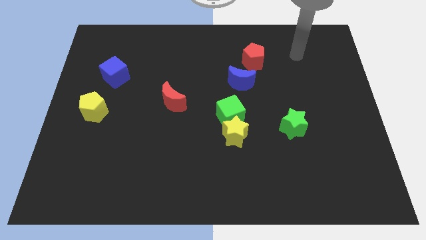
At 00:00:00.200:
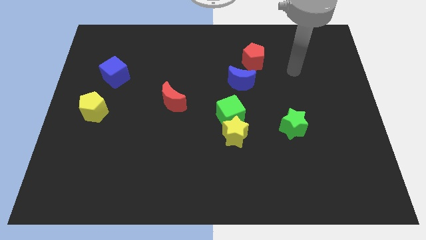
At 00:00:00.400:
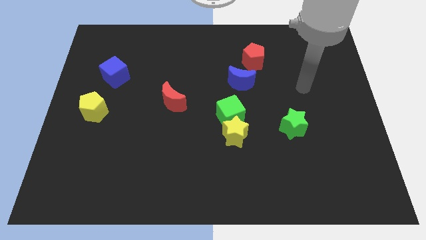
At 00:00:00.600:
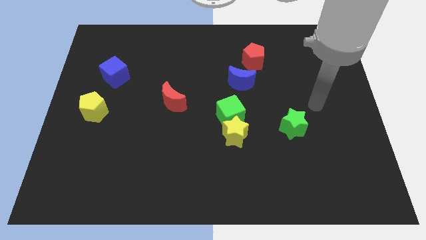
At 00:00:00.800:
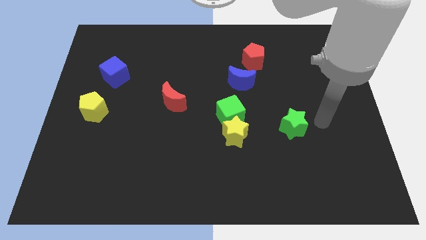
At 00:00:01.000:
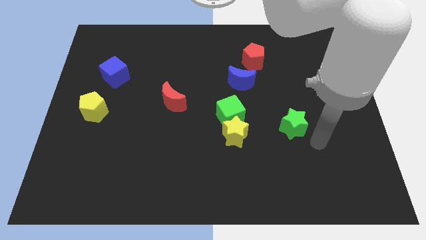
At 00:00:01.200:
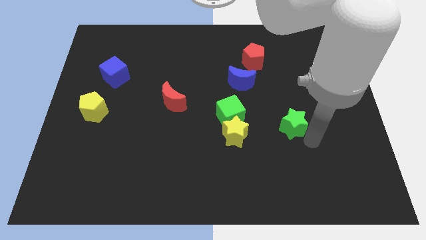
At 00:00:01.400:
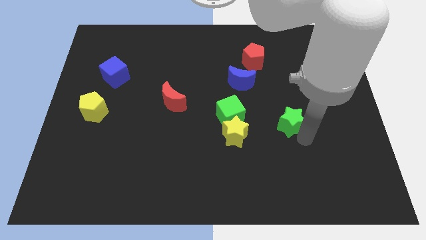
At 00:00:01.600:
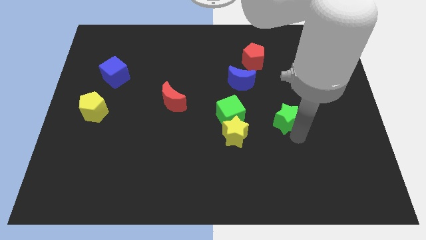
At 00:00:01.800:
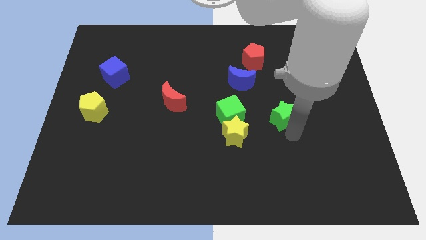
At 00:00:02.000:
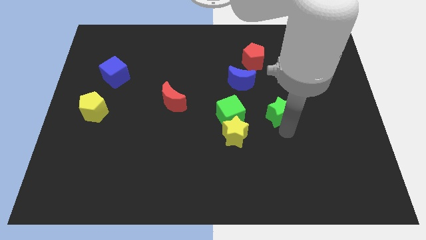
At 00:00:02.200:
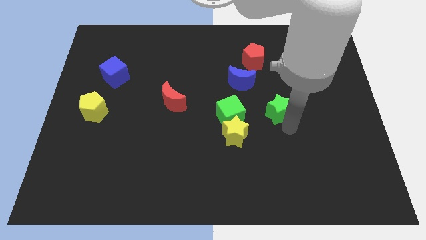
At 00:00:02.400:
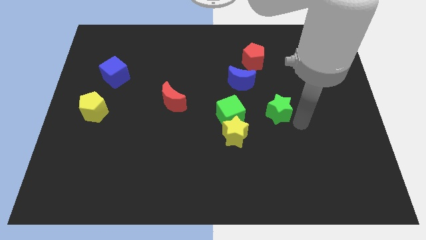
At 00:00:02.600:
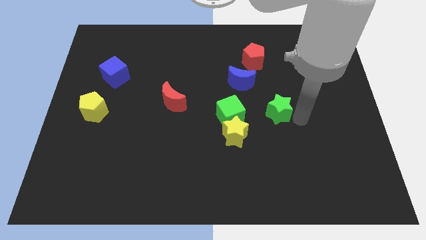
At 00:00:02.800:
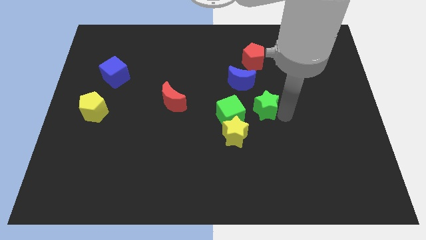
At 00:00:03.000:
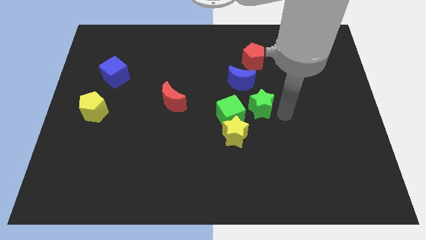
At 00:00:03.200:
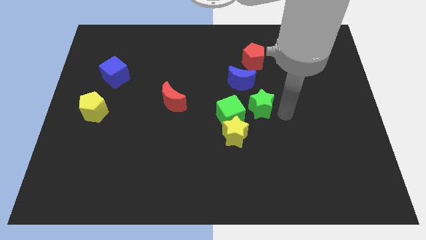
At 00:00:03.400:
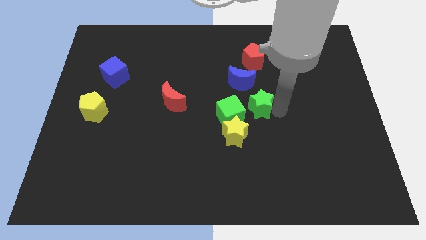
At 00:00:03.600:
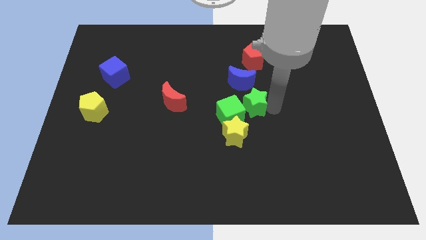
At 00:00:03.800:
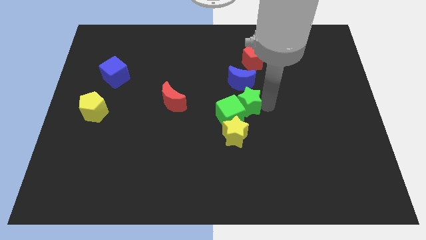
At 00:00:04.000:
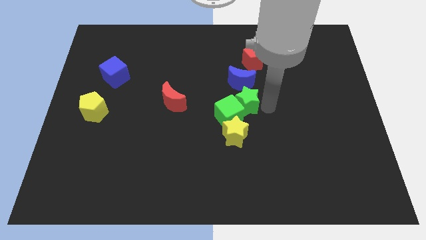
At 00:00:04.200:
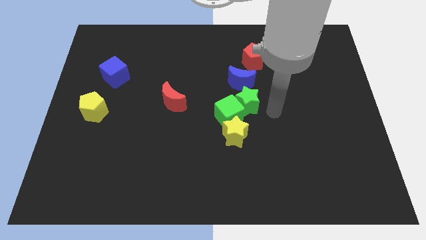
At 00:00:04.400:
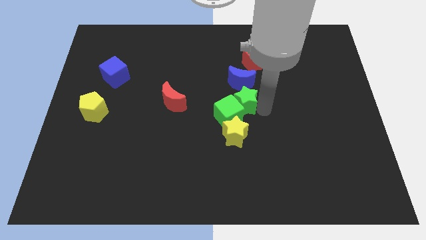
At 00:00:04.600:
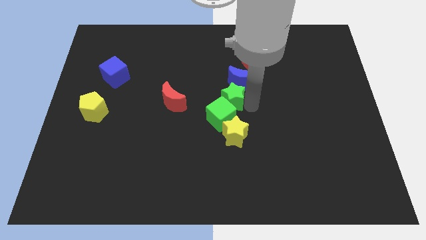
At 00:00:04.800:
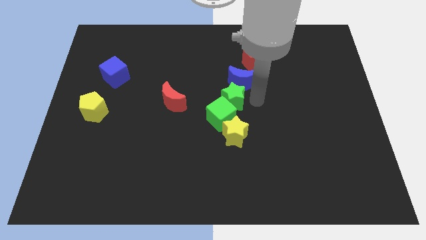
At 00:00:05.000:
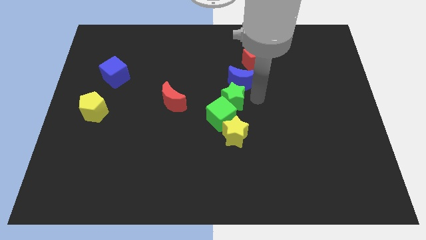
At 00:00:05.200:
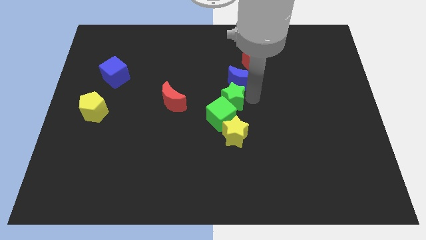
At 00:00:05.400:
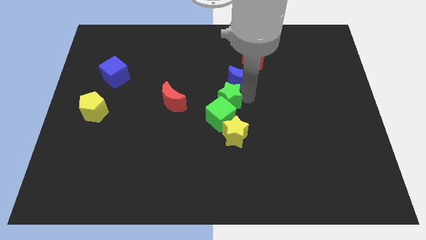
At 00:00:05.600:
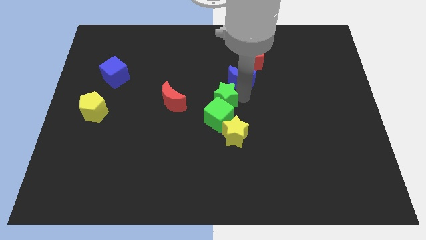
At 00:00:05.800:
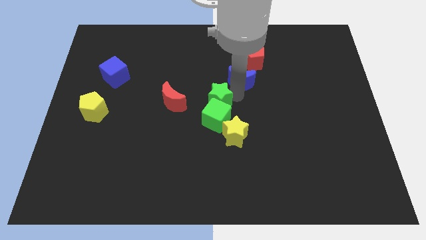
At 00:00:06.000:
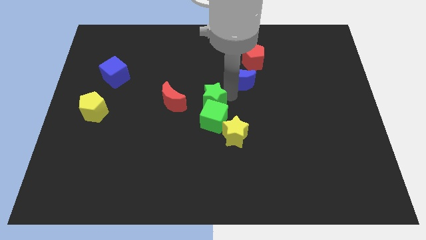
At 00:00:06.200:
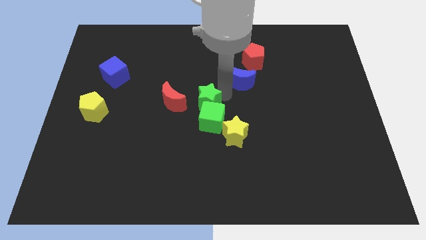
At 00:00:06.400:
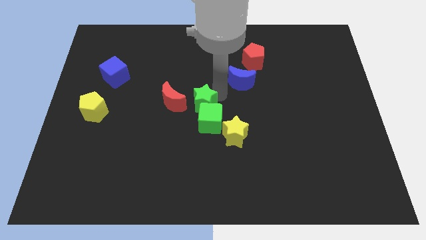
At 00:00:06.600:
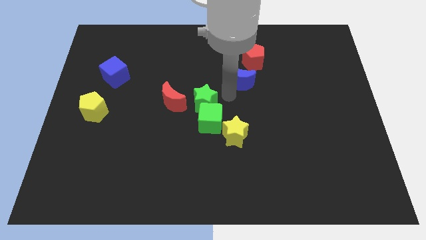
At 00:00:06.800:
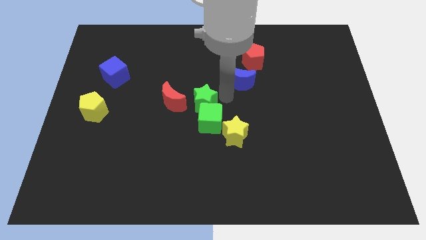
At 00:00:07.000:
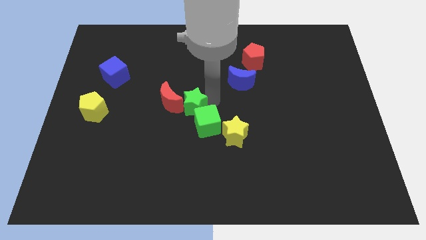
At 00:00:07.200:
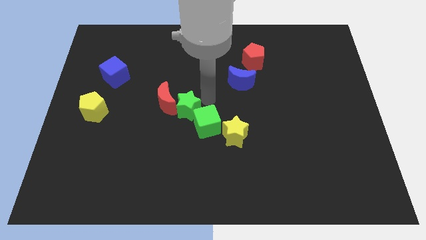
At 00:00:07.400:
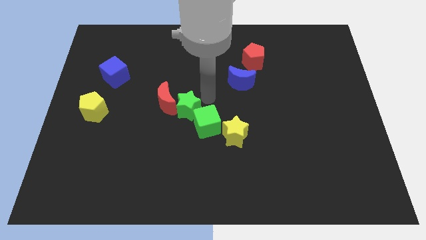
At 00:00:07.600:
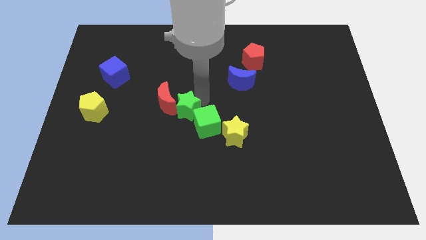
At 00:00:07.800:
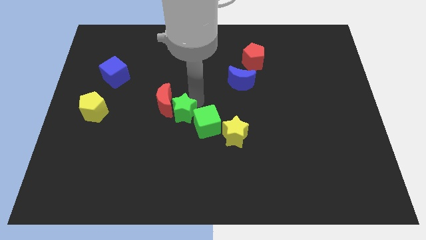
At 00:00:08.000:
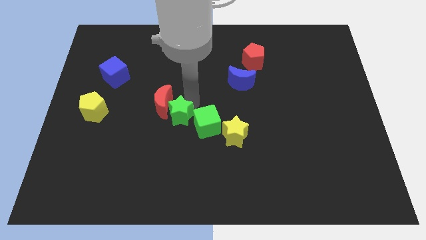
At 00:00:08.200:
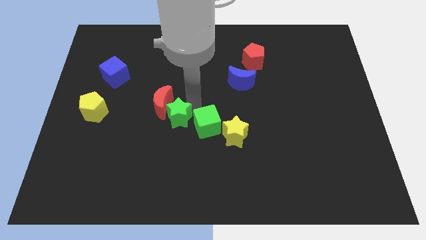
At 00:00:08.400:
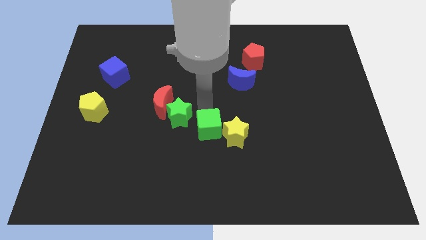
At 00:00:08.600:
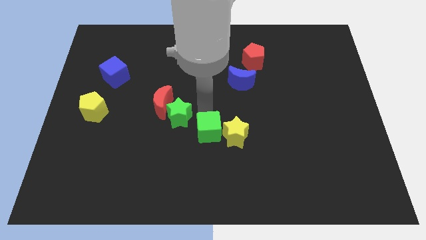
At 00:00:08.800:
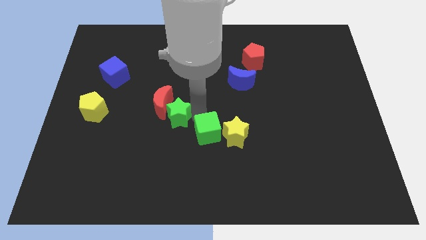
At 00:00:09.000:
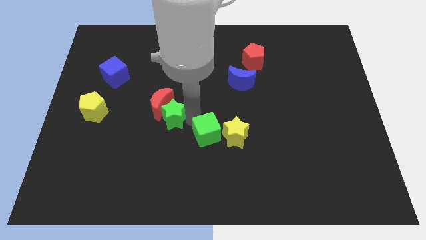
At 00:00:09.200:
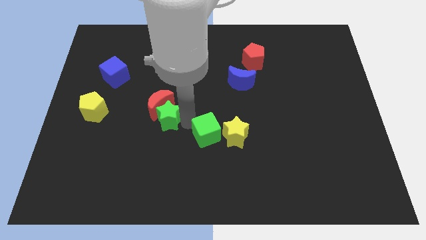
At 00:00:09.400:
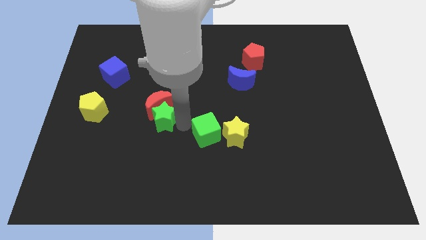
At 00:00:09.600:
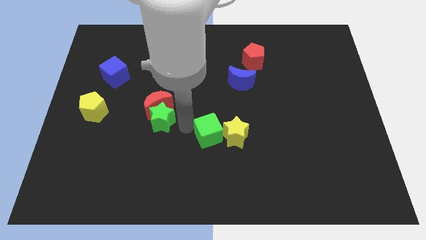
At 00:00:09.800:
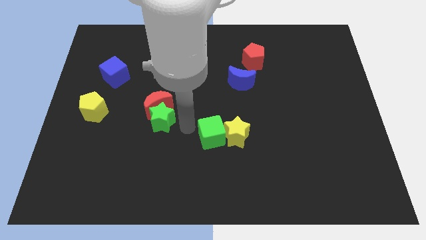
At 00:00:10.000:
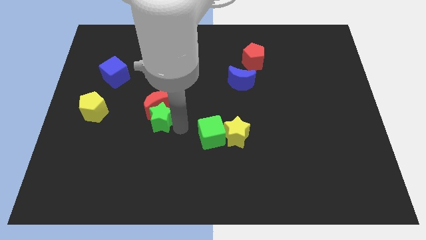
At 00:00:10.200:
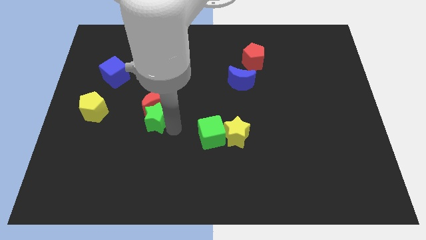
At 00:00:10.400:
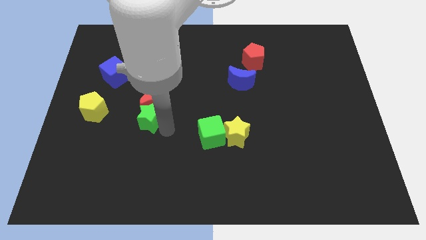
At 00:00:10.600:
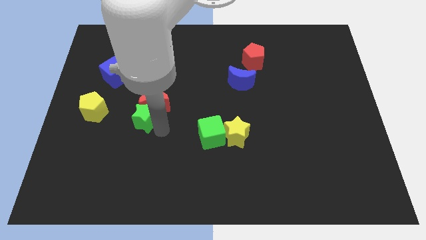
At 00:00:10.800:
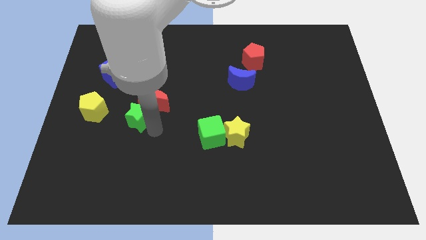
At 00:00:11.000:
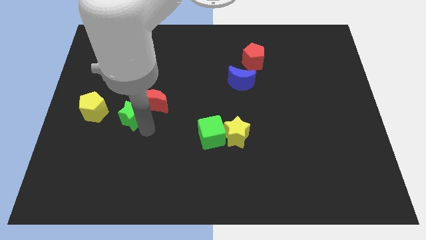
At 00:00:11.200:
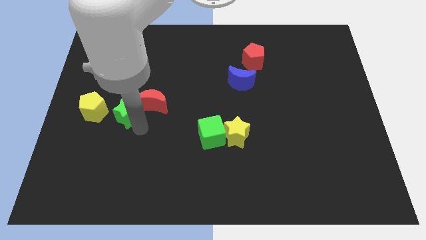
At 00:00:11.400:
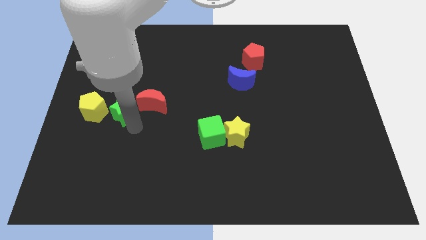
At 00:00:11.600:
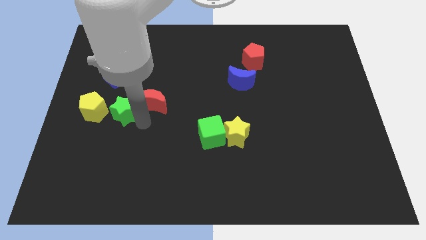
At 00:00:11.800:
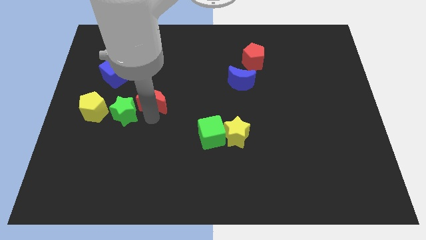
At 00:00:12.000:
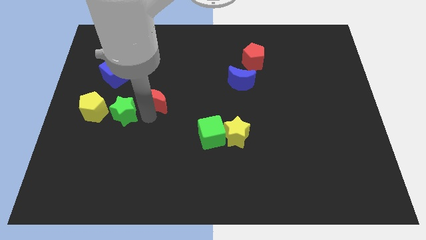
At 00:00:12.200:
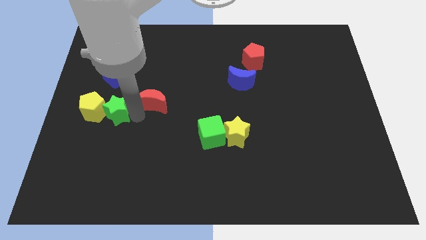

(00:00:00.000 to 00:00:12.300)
push the green star next to the yellow pentagon
